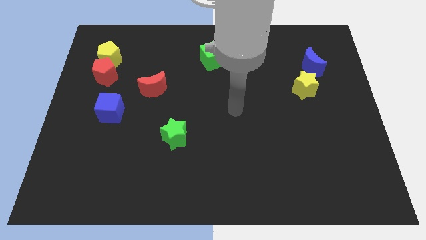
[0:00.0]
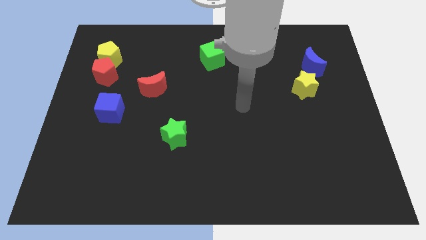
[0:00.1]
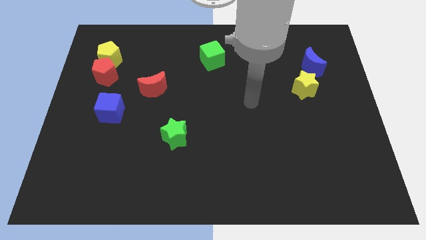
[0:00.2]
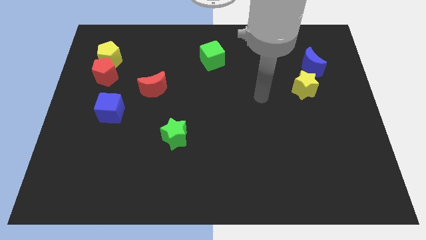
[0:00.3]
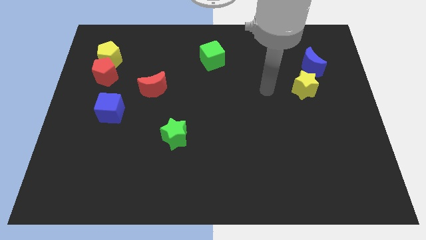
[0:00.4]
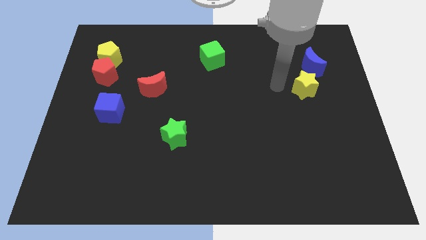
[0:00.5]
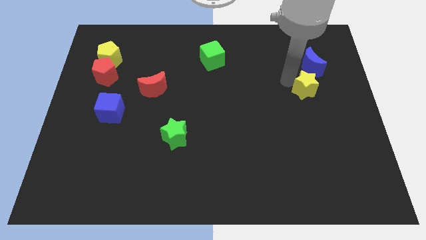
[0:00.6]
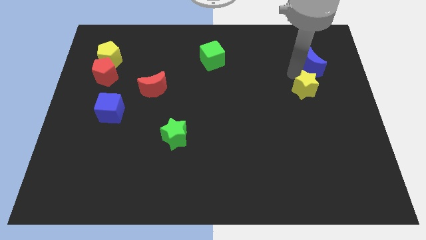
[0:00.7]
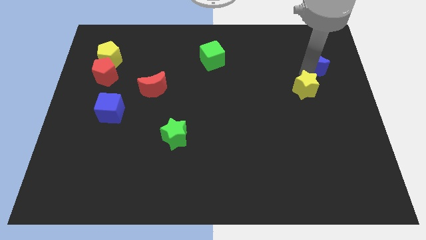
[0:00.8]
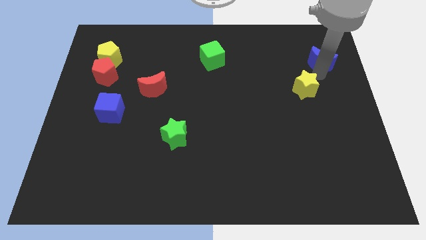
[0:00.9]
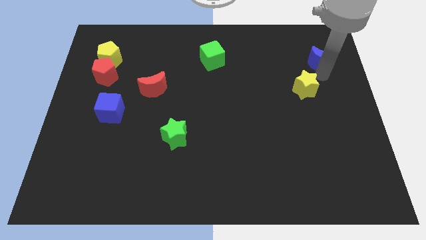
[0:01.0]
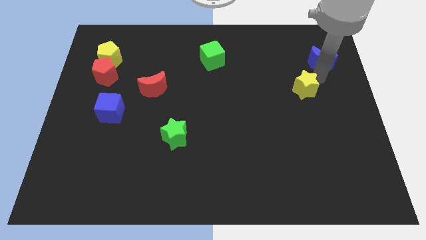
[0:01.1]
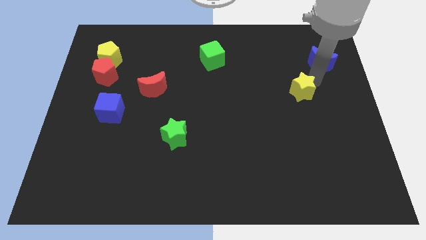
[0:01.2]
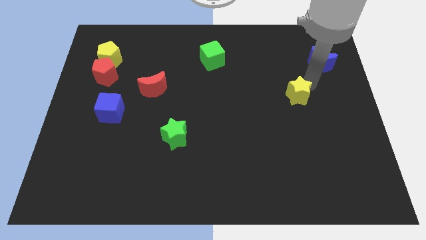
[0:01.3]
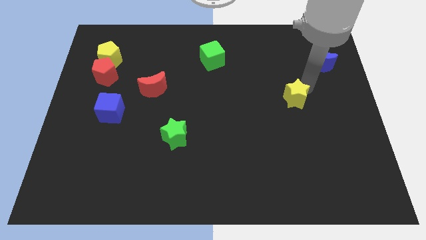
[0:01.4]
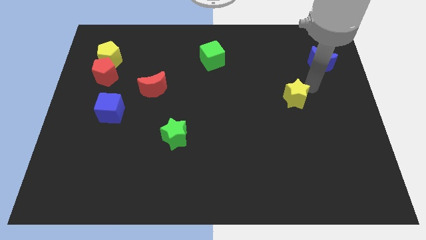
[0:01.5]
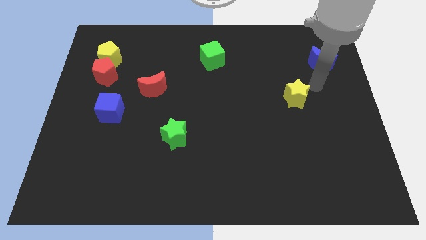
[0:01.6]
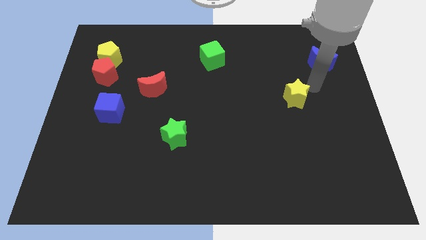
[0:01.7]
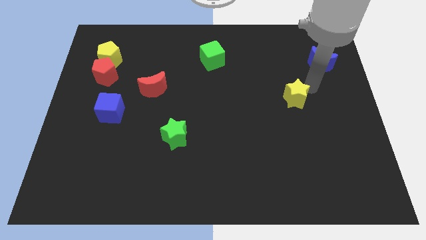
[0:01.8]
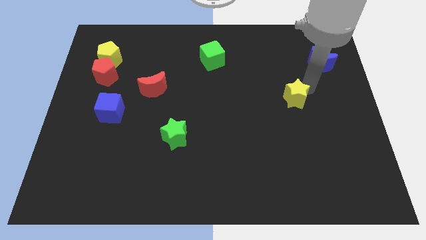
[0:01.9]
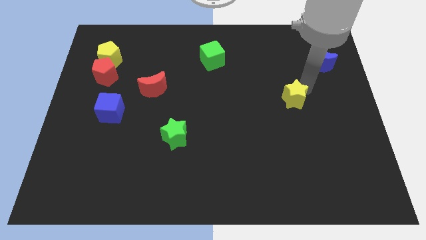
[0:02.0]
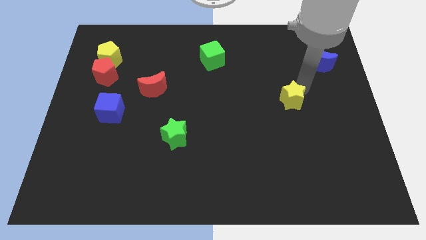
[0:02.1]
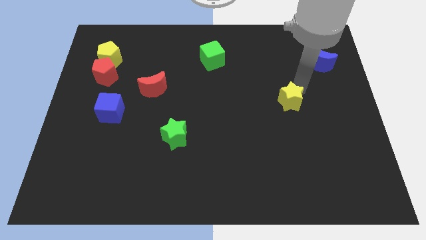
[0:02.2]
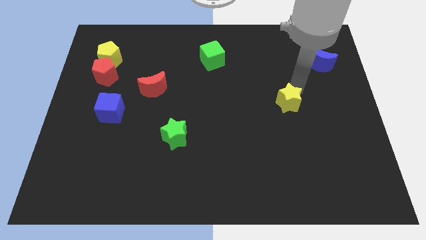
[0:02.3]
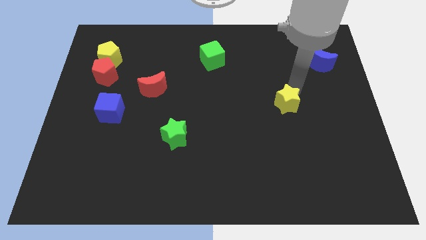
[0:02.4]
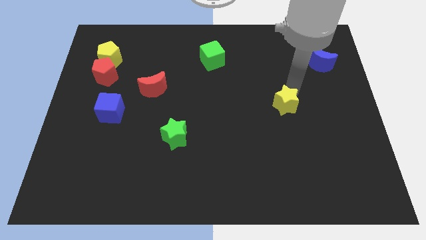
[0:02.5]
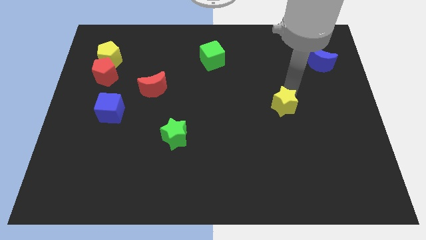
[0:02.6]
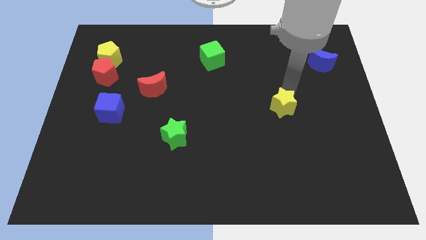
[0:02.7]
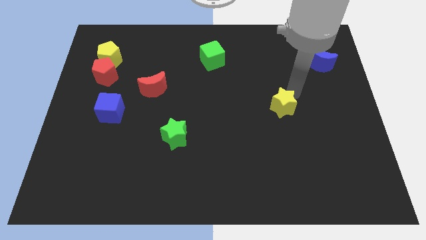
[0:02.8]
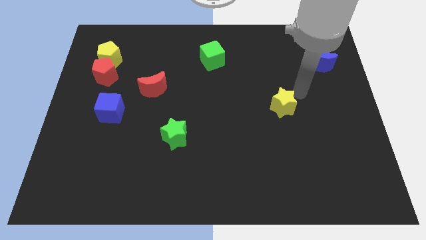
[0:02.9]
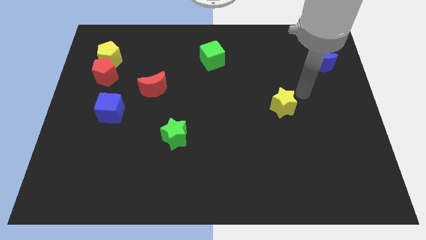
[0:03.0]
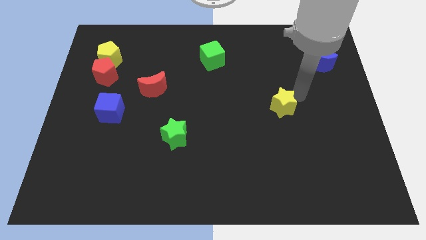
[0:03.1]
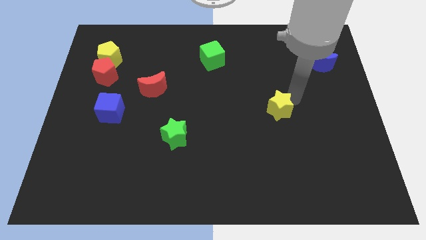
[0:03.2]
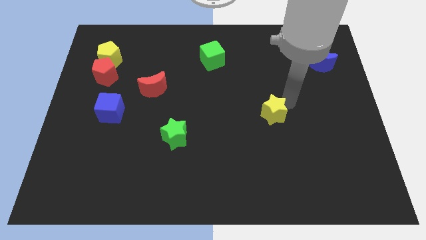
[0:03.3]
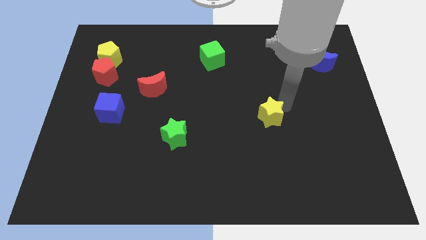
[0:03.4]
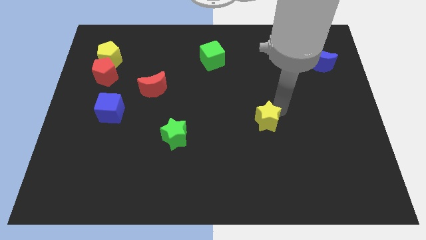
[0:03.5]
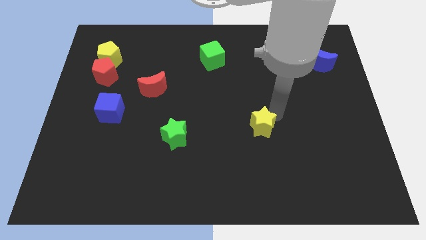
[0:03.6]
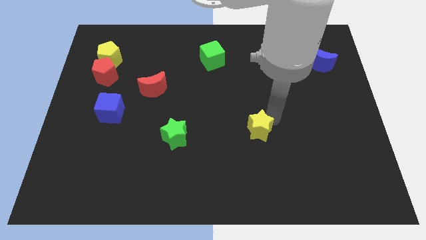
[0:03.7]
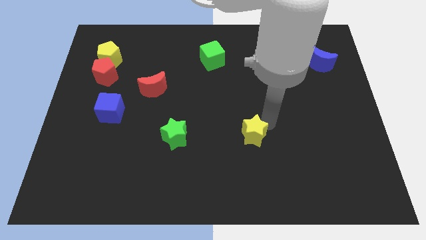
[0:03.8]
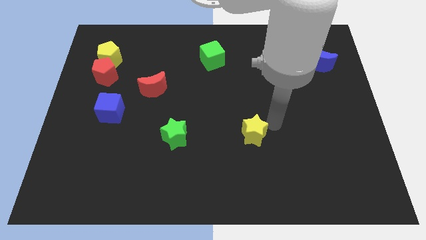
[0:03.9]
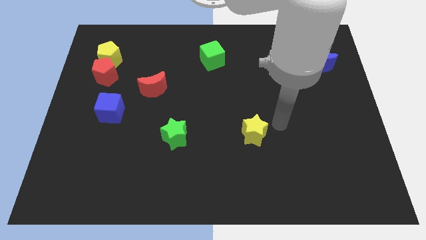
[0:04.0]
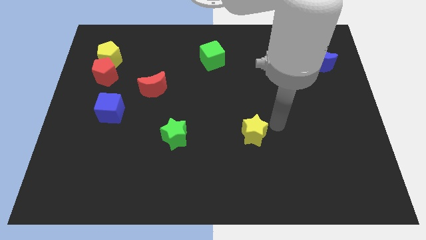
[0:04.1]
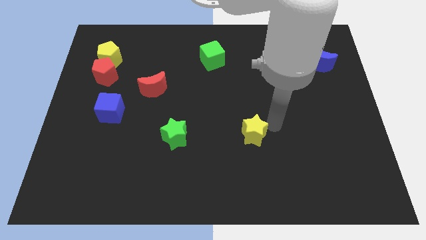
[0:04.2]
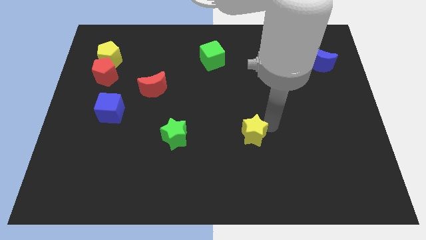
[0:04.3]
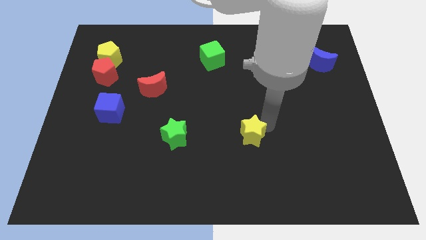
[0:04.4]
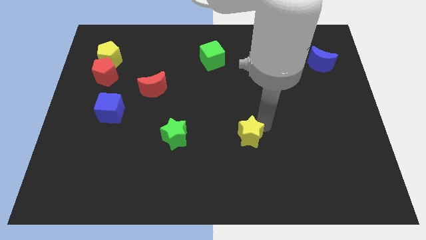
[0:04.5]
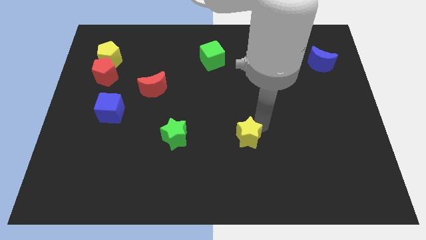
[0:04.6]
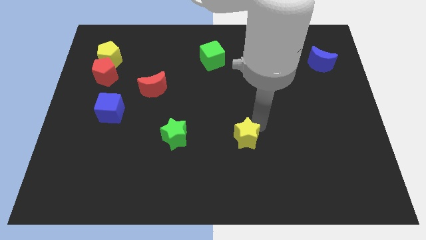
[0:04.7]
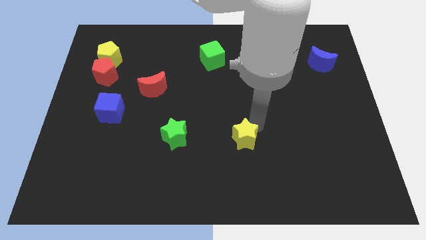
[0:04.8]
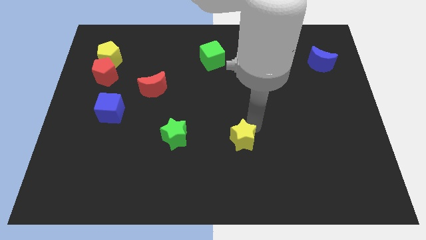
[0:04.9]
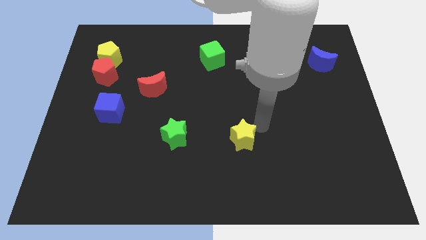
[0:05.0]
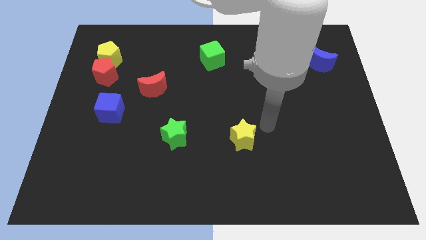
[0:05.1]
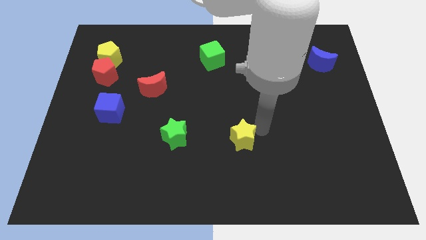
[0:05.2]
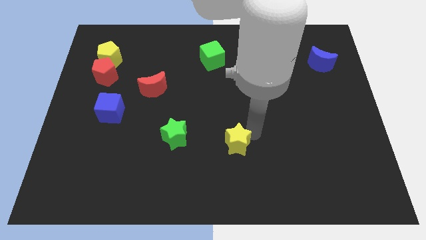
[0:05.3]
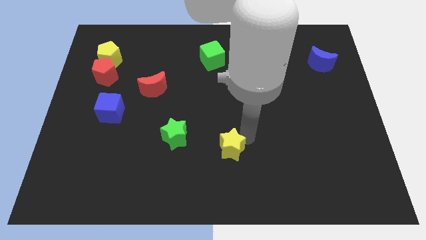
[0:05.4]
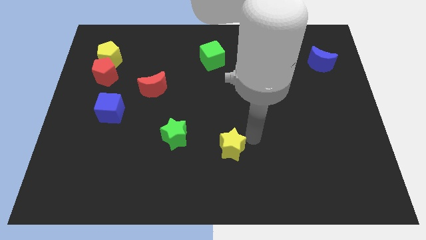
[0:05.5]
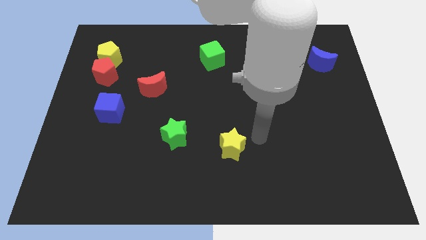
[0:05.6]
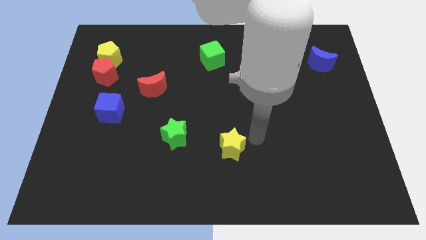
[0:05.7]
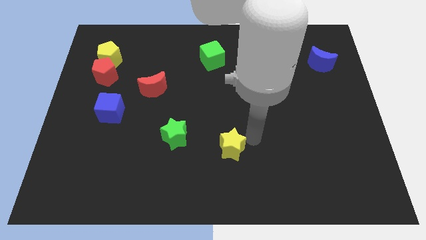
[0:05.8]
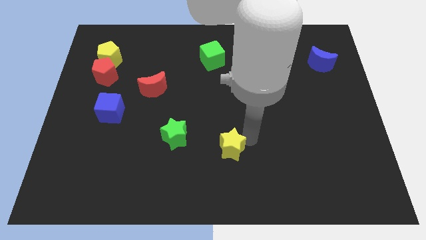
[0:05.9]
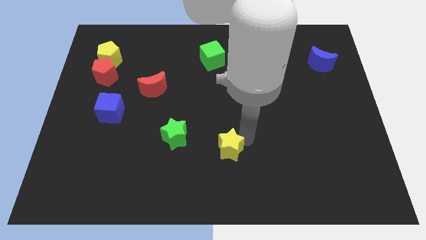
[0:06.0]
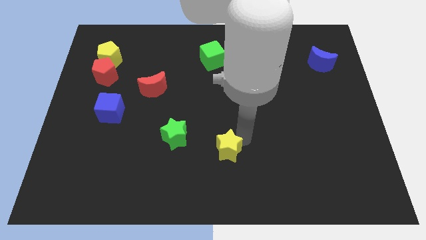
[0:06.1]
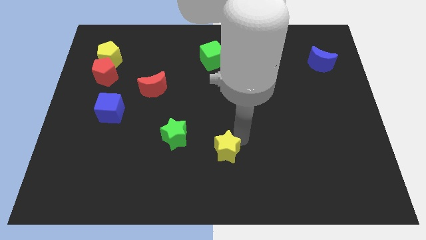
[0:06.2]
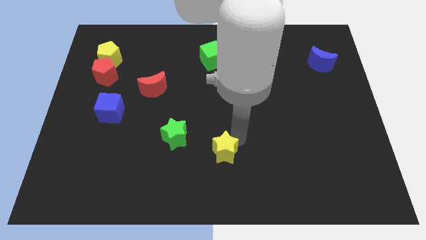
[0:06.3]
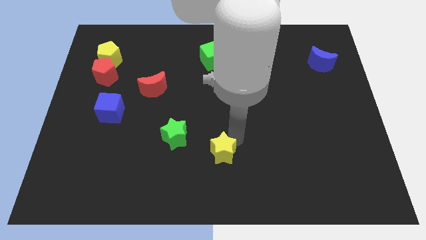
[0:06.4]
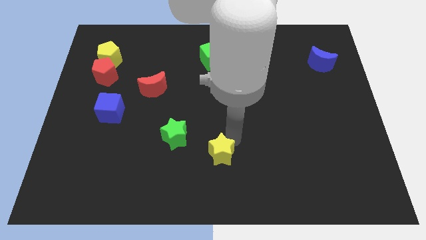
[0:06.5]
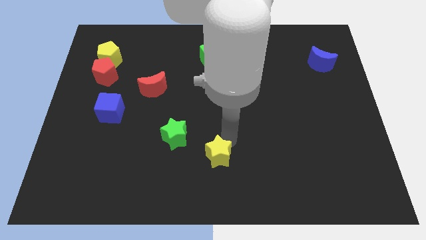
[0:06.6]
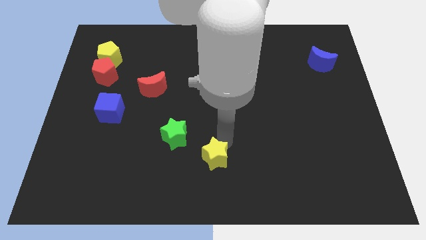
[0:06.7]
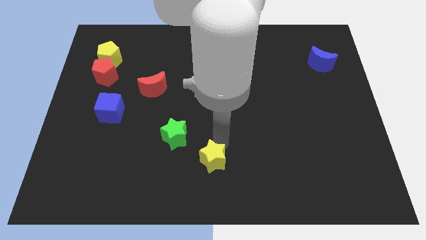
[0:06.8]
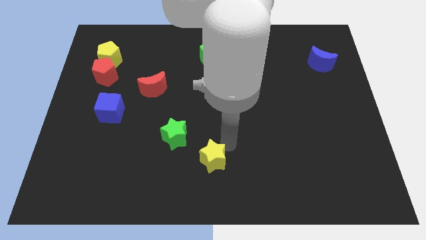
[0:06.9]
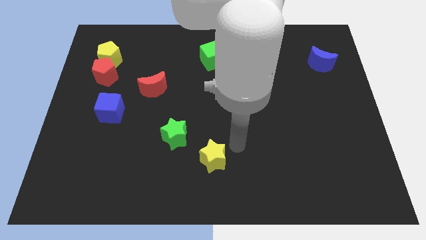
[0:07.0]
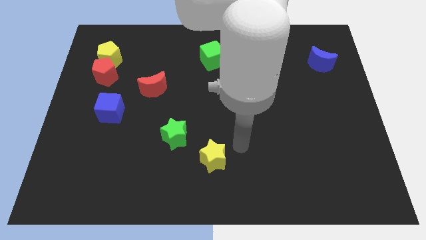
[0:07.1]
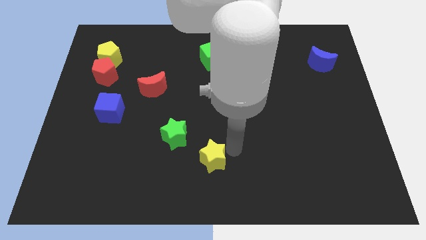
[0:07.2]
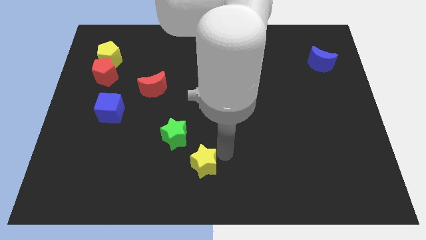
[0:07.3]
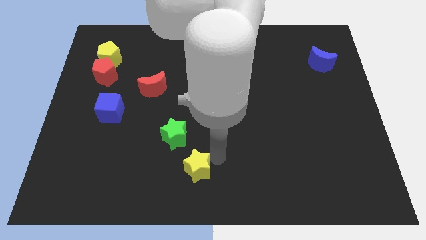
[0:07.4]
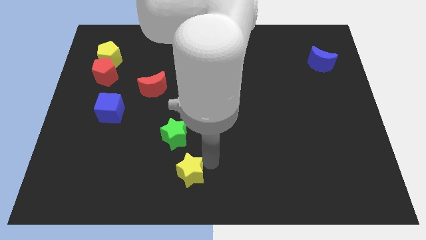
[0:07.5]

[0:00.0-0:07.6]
slide the yellow star to the bottom of the green star
